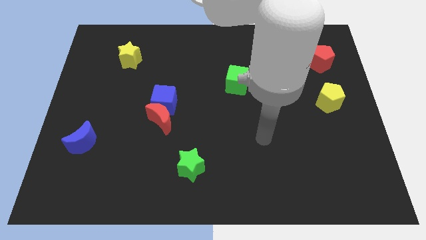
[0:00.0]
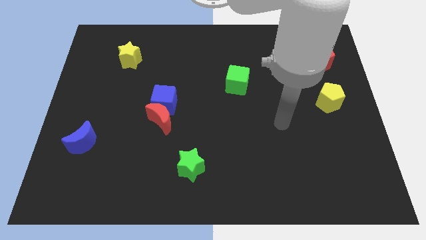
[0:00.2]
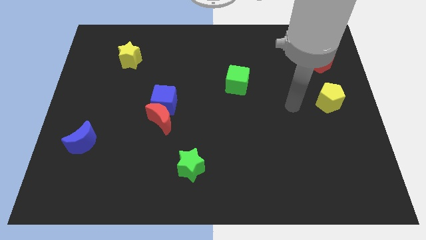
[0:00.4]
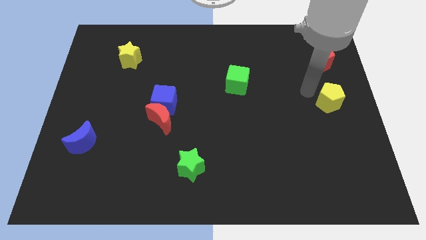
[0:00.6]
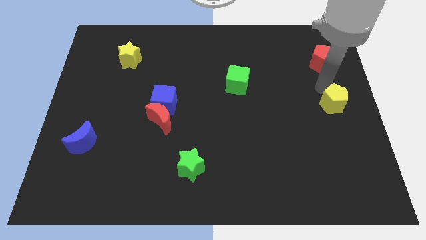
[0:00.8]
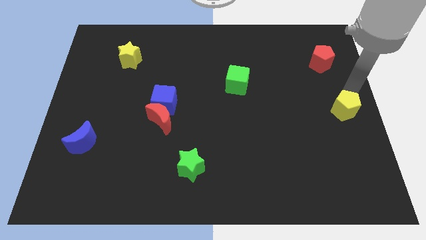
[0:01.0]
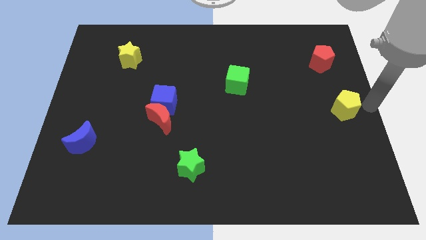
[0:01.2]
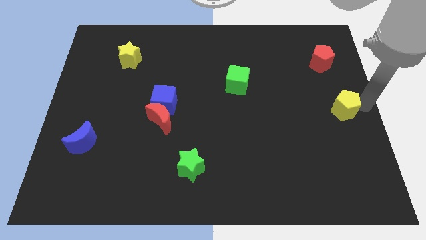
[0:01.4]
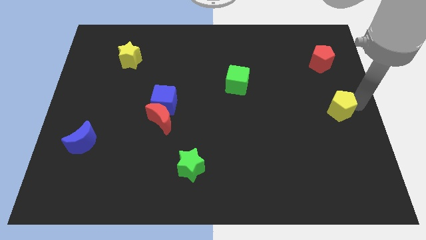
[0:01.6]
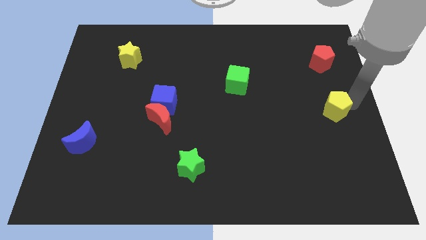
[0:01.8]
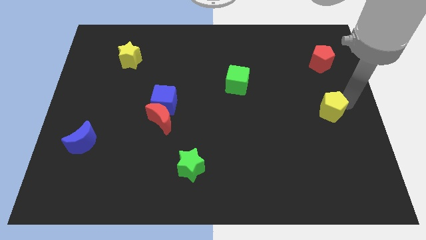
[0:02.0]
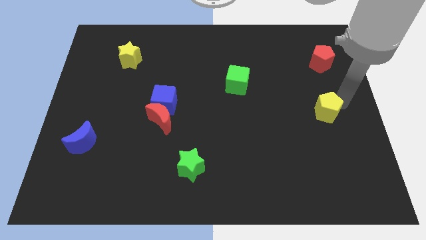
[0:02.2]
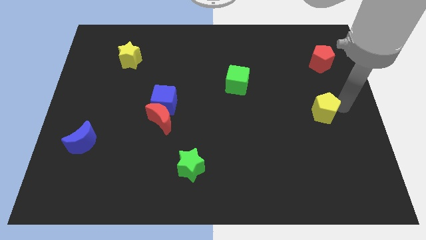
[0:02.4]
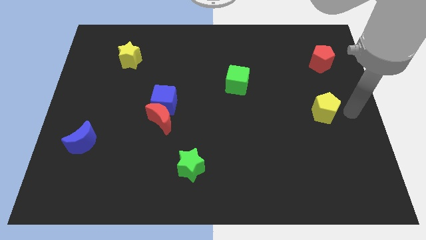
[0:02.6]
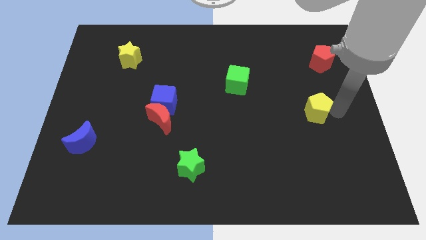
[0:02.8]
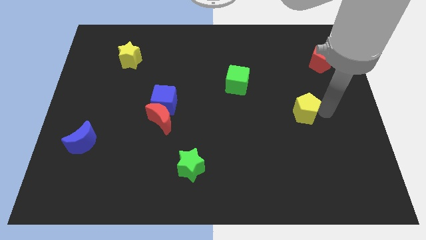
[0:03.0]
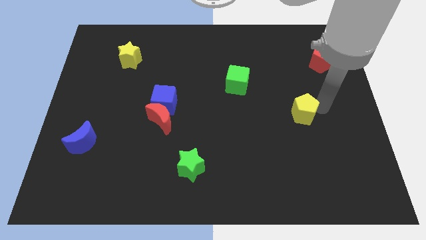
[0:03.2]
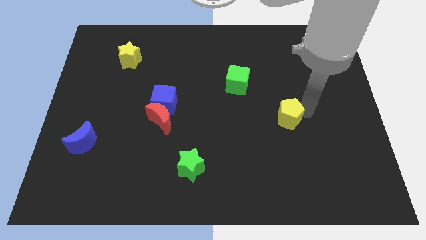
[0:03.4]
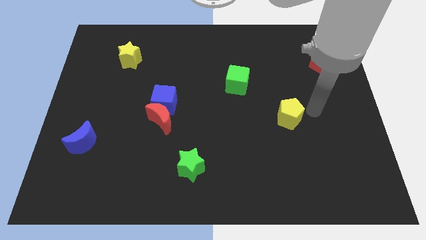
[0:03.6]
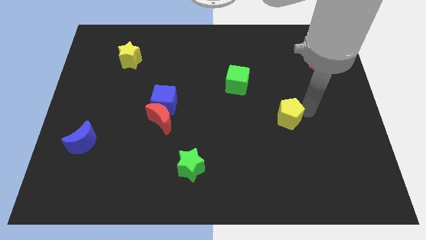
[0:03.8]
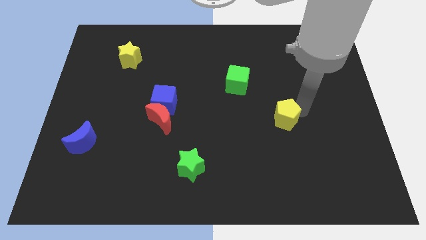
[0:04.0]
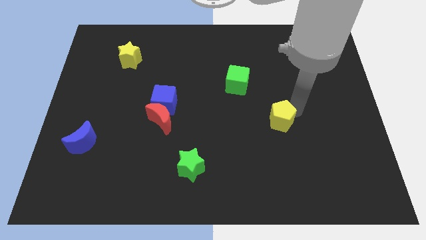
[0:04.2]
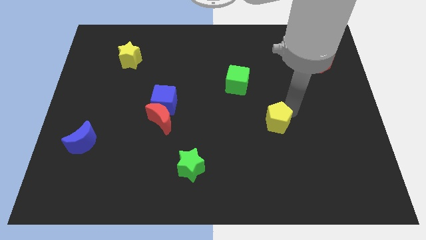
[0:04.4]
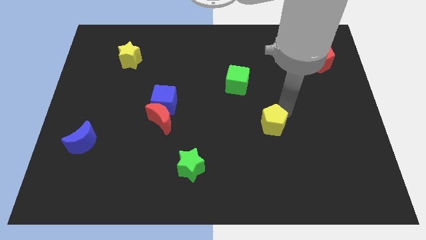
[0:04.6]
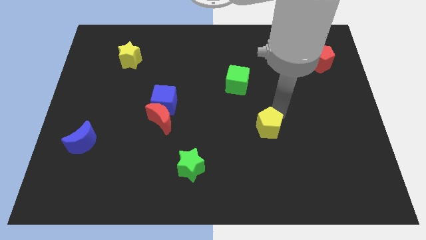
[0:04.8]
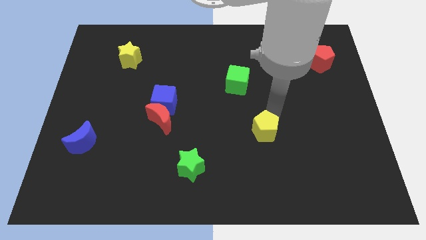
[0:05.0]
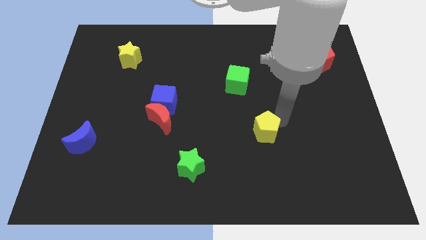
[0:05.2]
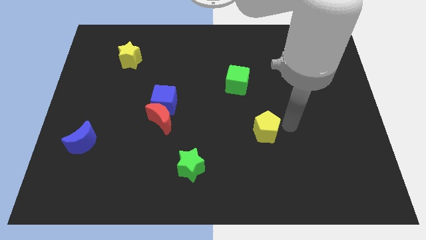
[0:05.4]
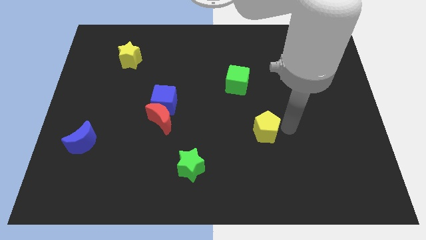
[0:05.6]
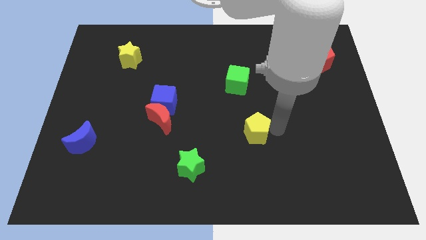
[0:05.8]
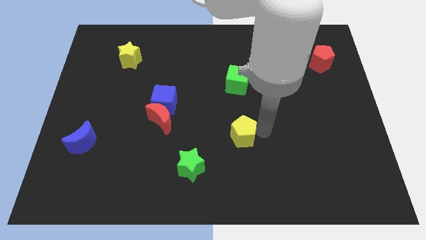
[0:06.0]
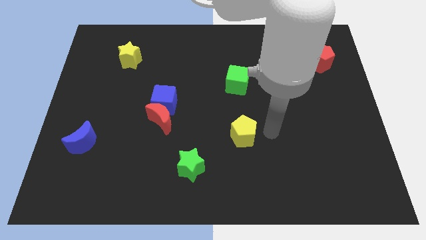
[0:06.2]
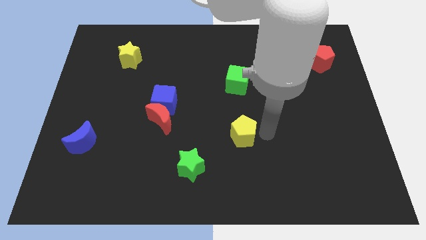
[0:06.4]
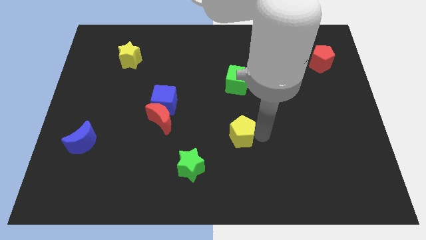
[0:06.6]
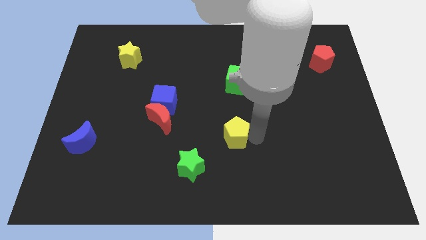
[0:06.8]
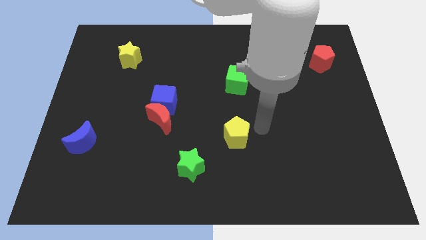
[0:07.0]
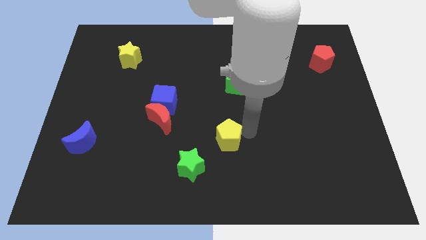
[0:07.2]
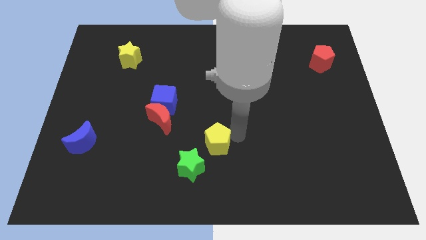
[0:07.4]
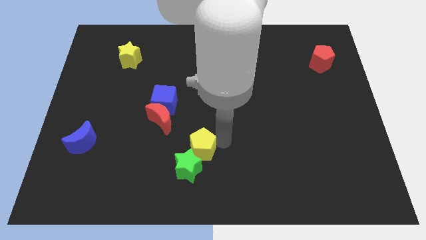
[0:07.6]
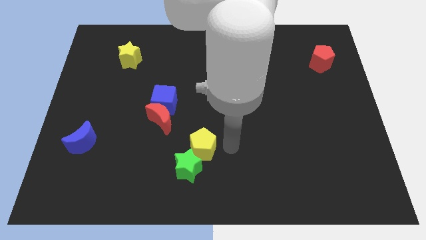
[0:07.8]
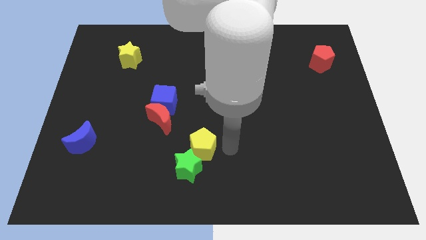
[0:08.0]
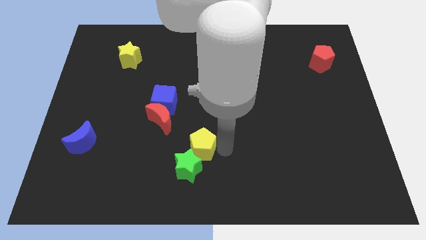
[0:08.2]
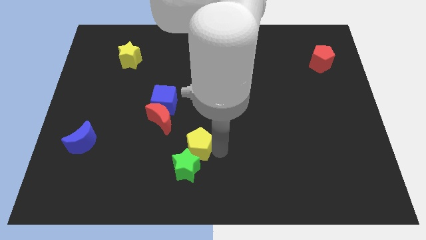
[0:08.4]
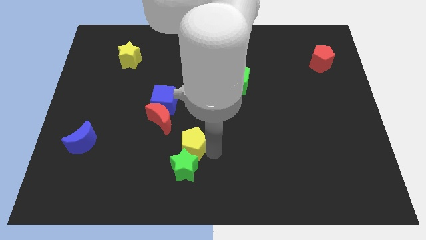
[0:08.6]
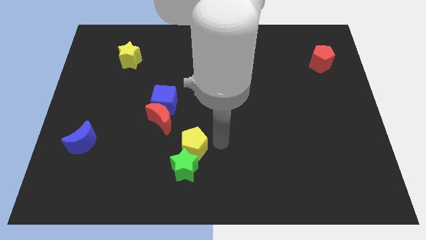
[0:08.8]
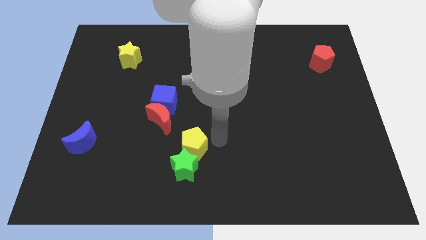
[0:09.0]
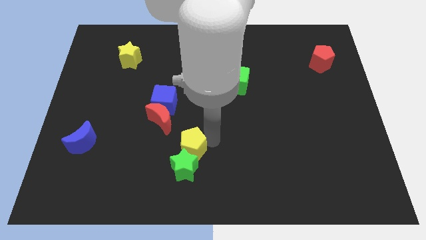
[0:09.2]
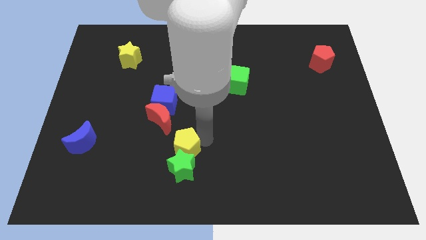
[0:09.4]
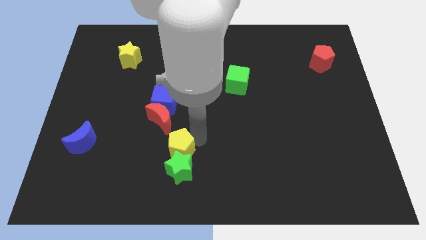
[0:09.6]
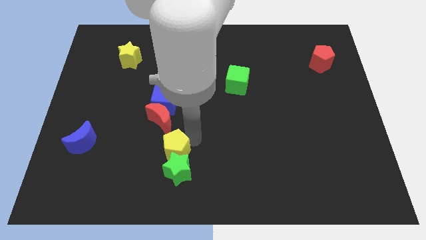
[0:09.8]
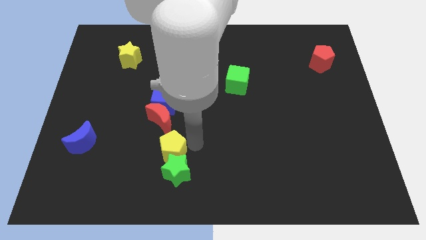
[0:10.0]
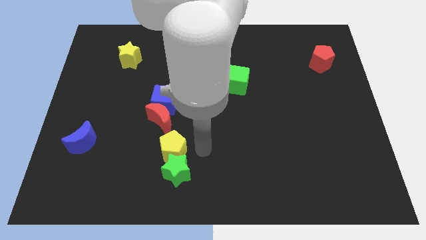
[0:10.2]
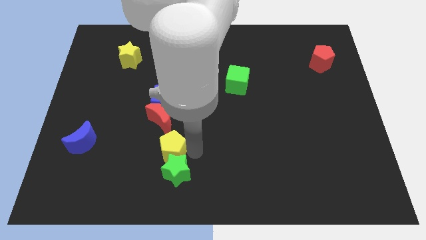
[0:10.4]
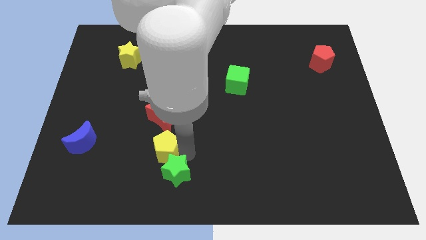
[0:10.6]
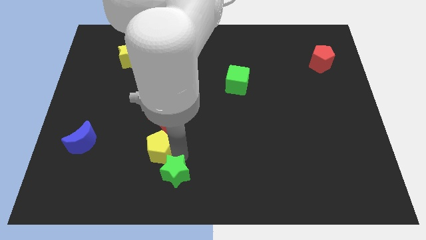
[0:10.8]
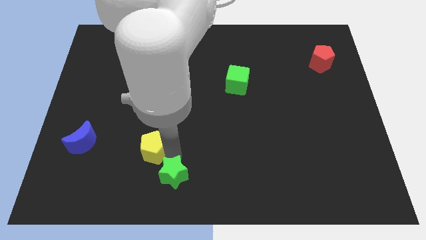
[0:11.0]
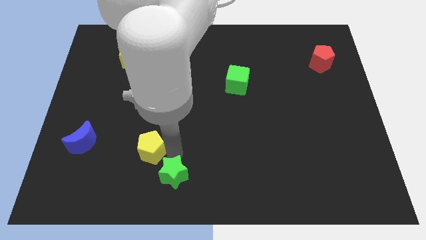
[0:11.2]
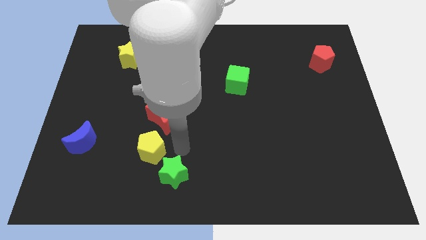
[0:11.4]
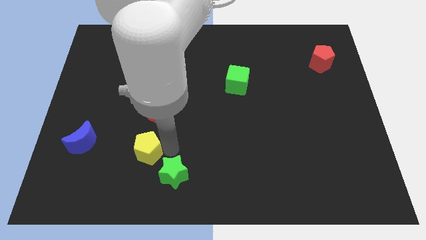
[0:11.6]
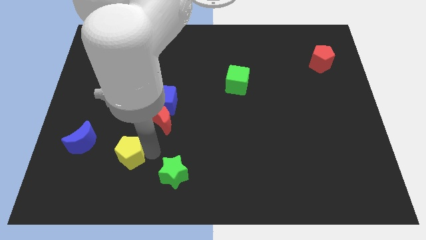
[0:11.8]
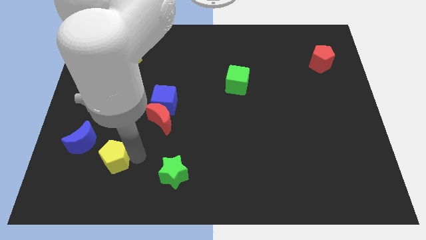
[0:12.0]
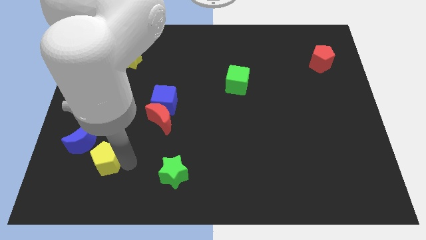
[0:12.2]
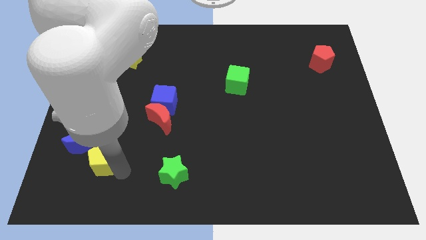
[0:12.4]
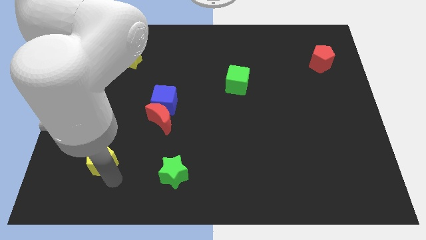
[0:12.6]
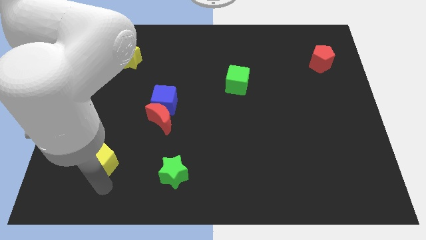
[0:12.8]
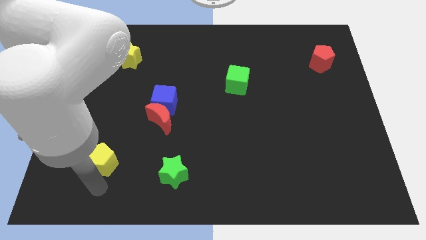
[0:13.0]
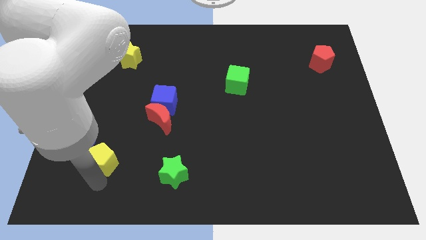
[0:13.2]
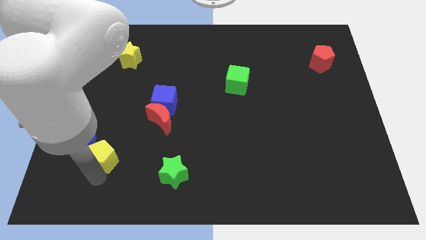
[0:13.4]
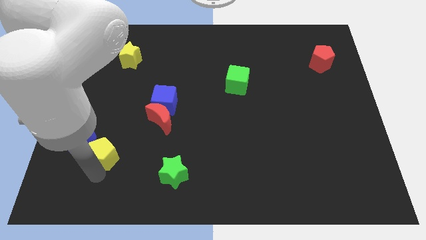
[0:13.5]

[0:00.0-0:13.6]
push the yellow pentagon to the blue moon
